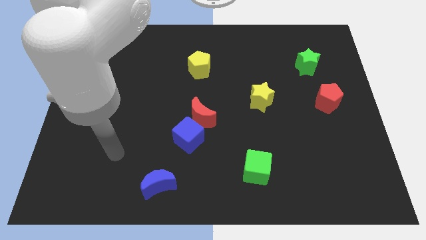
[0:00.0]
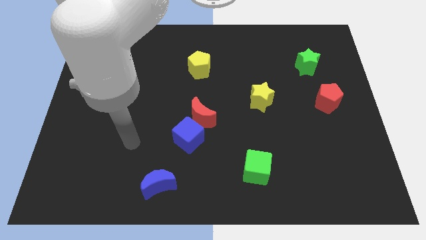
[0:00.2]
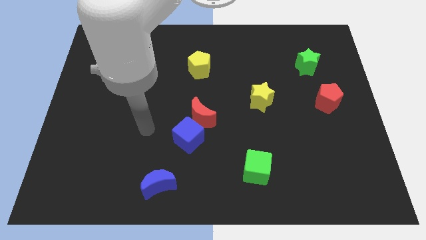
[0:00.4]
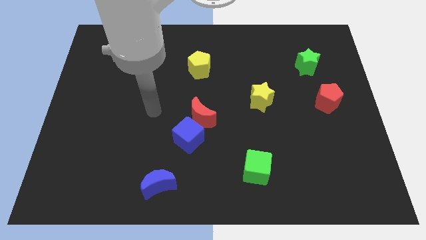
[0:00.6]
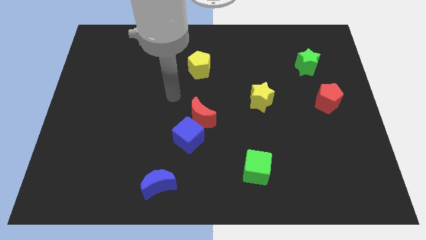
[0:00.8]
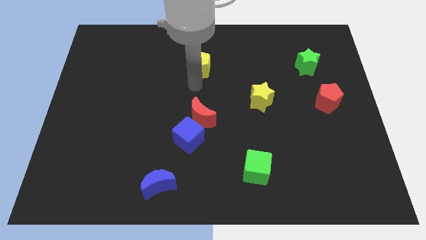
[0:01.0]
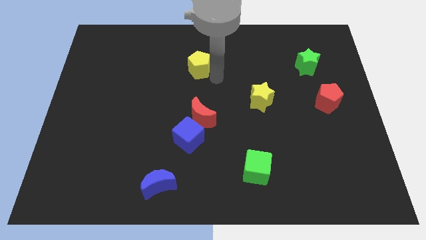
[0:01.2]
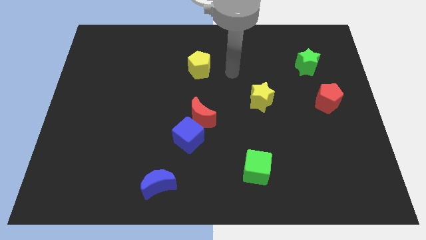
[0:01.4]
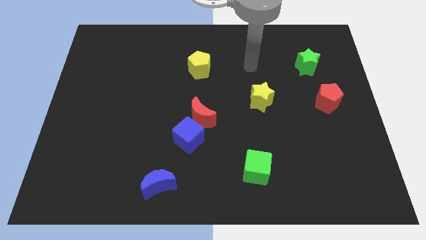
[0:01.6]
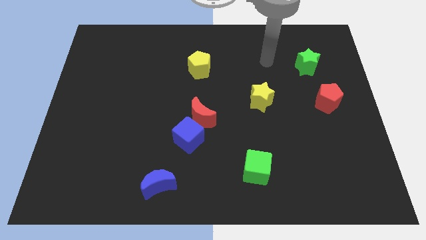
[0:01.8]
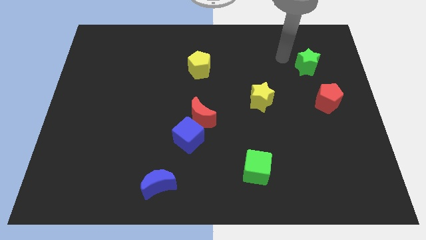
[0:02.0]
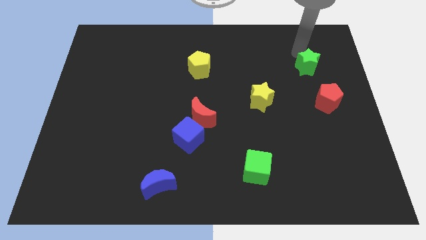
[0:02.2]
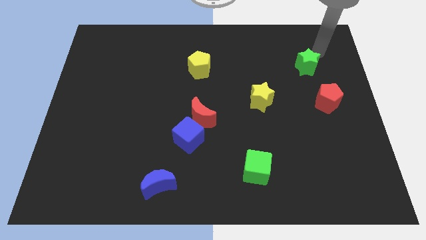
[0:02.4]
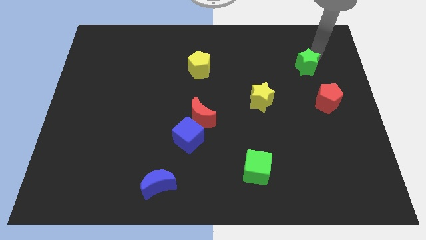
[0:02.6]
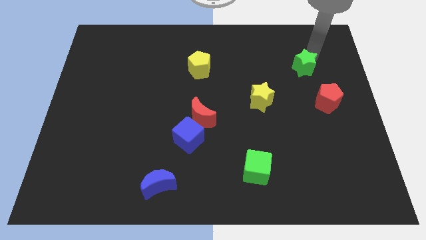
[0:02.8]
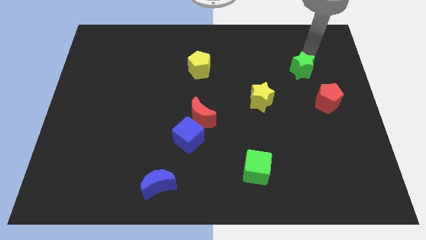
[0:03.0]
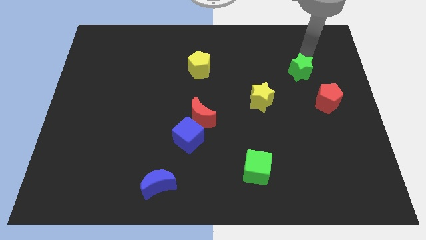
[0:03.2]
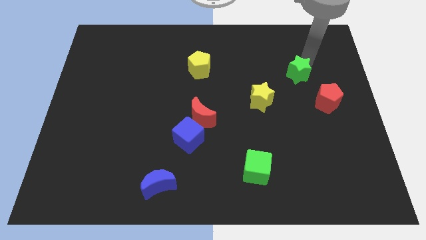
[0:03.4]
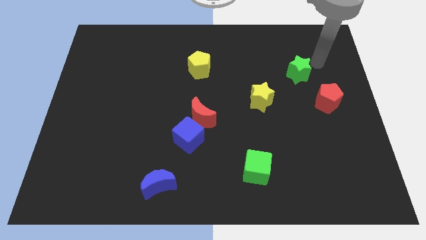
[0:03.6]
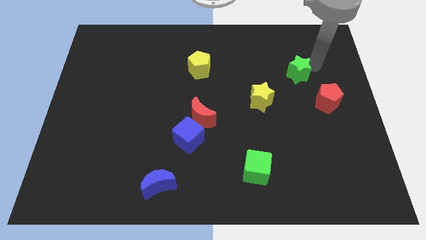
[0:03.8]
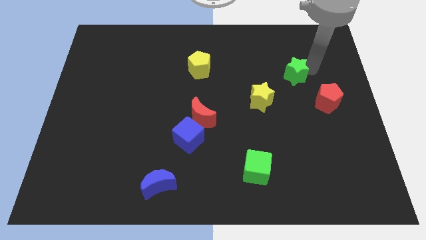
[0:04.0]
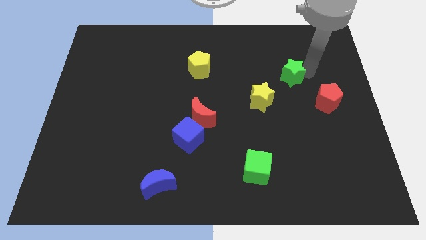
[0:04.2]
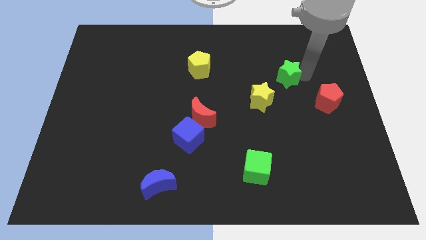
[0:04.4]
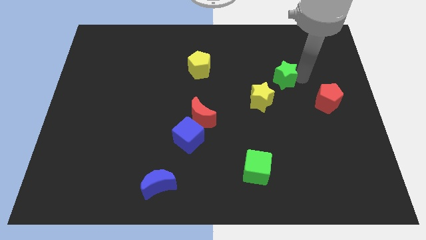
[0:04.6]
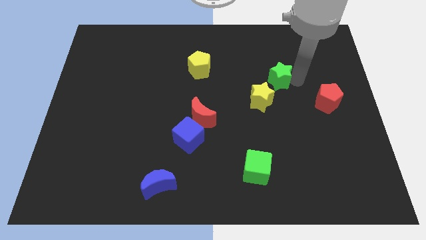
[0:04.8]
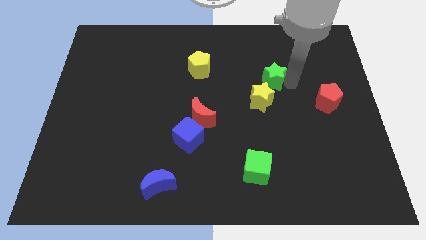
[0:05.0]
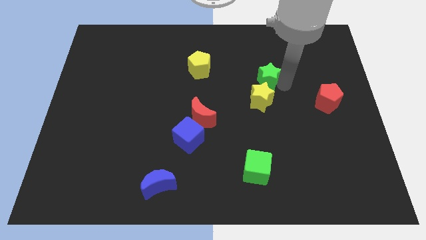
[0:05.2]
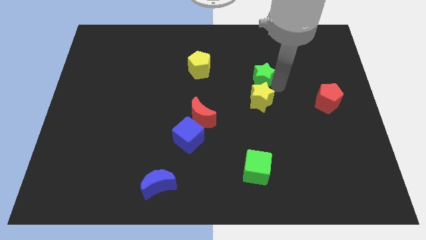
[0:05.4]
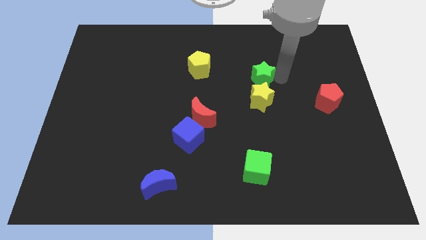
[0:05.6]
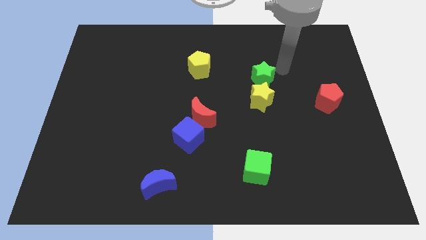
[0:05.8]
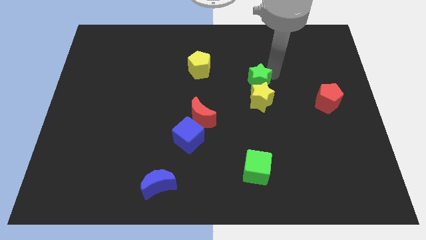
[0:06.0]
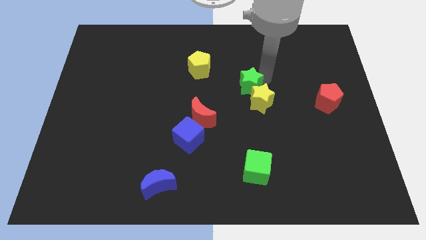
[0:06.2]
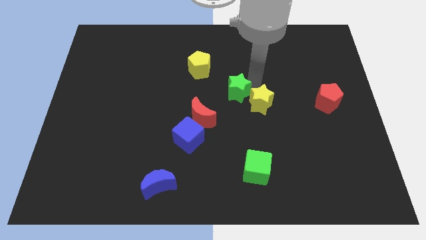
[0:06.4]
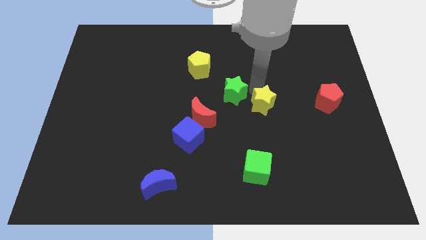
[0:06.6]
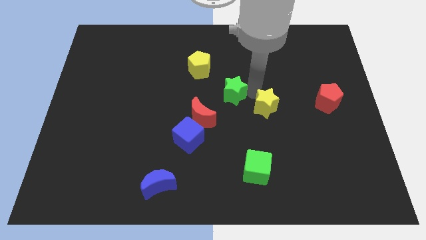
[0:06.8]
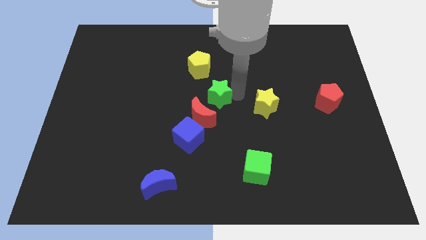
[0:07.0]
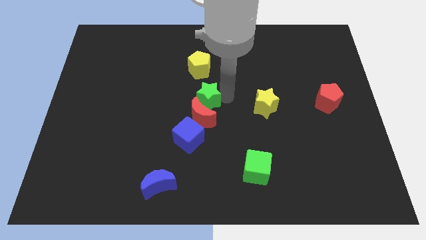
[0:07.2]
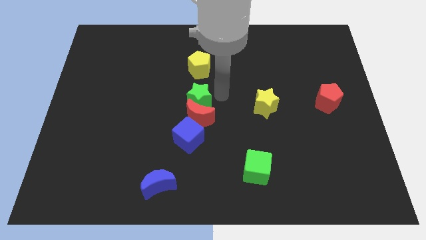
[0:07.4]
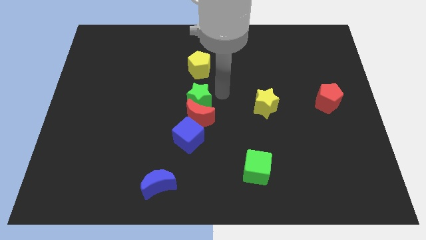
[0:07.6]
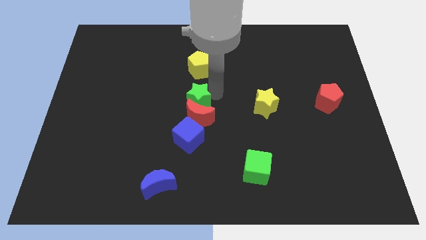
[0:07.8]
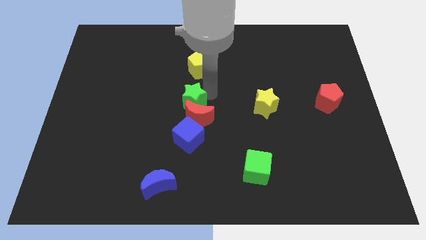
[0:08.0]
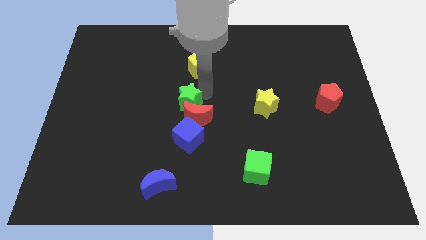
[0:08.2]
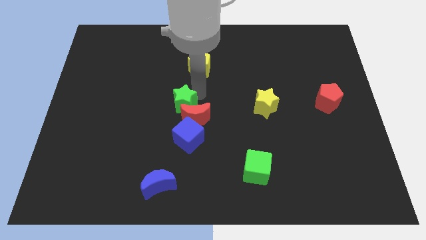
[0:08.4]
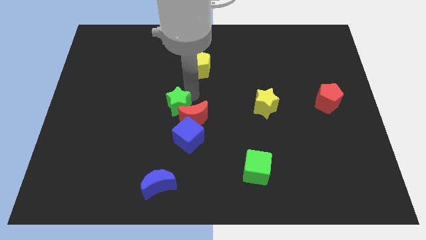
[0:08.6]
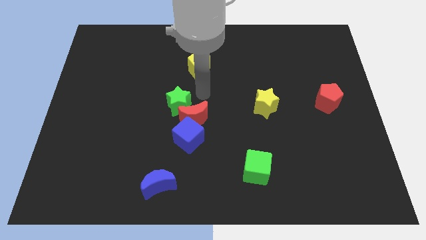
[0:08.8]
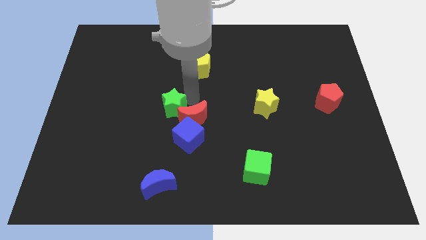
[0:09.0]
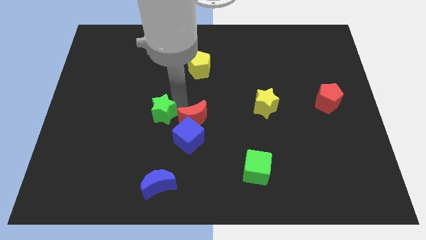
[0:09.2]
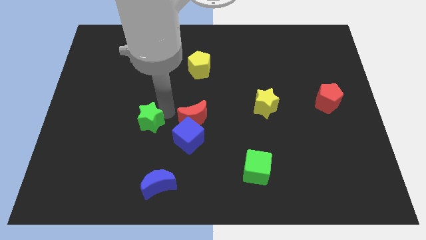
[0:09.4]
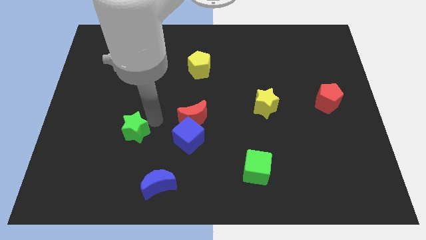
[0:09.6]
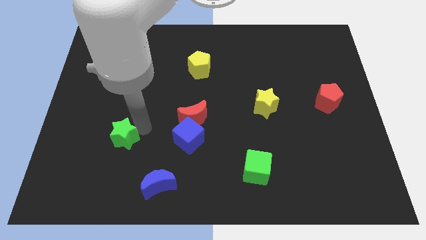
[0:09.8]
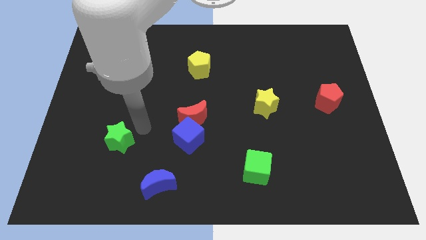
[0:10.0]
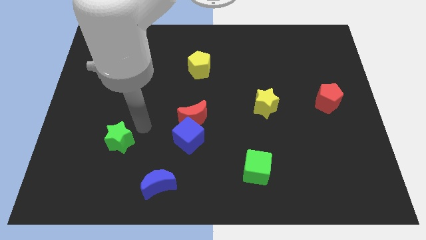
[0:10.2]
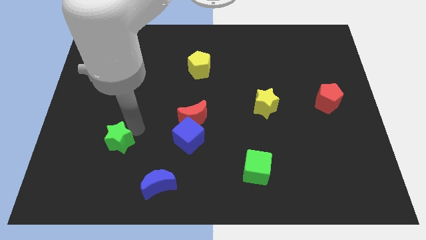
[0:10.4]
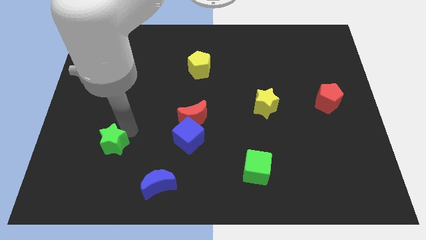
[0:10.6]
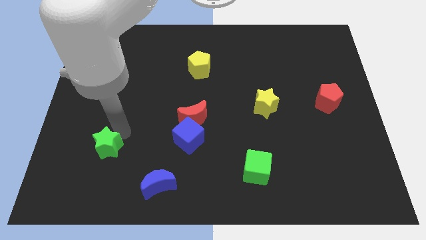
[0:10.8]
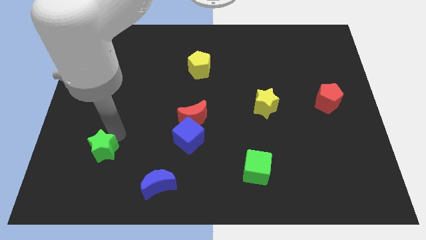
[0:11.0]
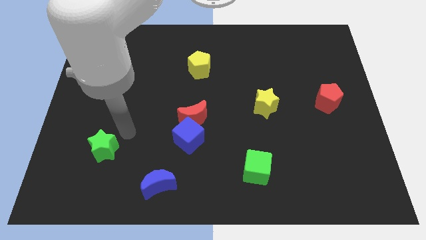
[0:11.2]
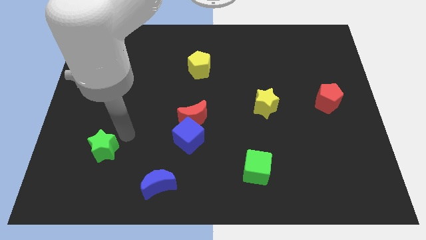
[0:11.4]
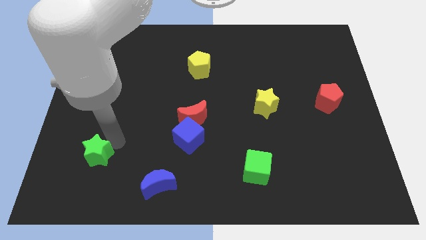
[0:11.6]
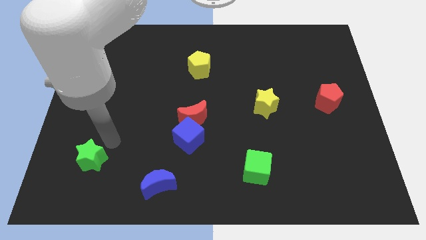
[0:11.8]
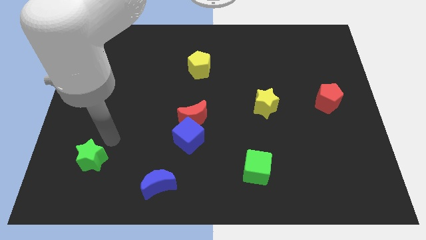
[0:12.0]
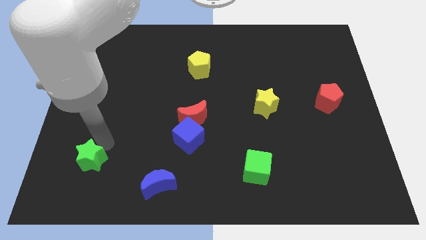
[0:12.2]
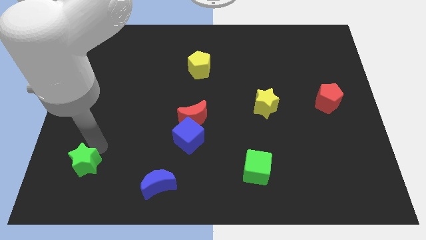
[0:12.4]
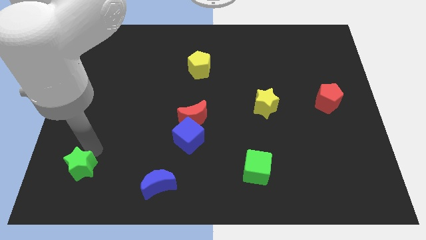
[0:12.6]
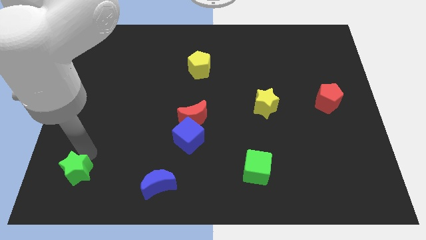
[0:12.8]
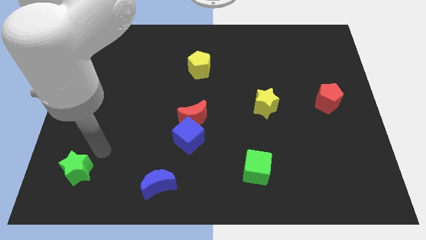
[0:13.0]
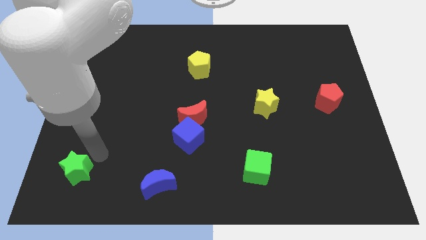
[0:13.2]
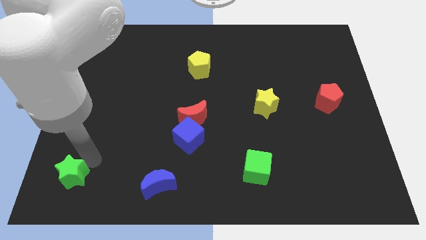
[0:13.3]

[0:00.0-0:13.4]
move the green star to the bottom left corner
